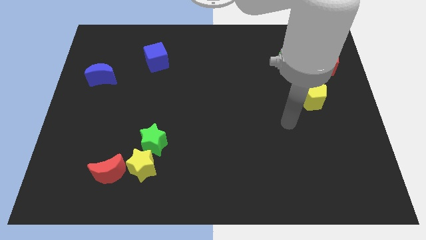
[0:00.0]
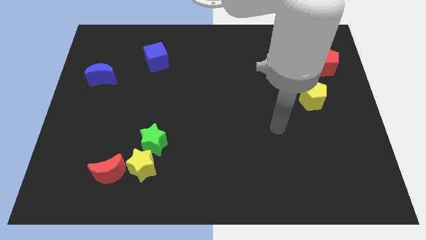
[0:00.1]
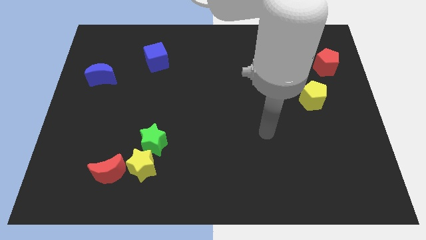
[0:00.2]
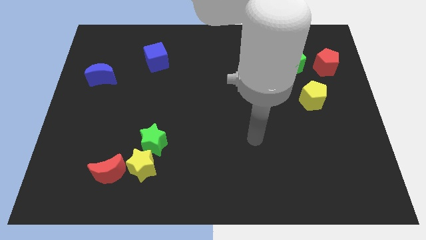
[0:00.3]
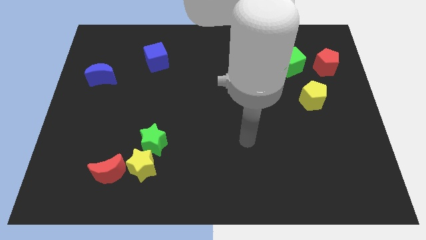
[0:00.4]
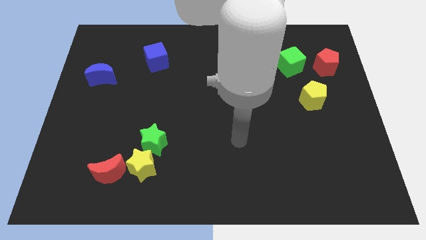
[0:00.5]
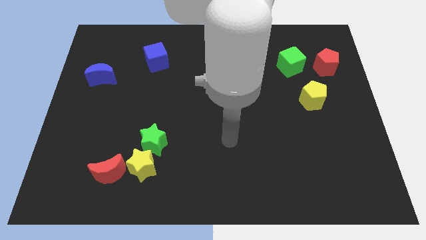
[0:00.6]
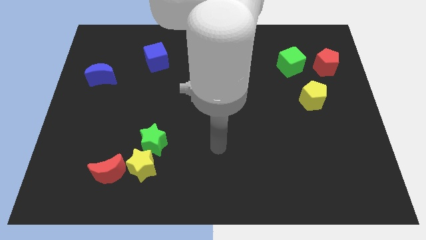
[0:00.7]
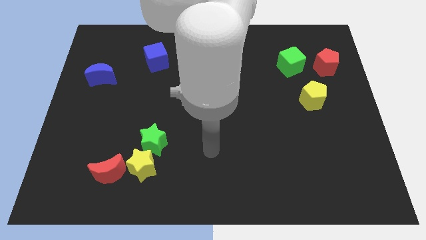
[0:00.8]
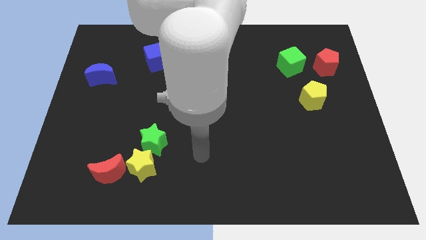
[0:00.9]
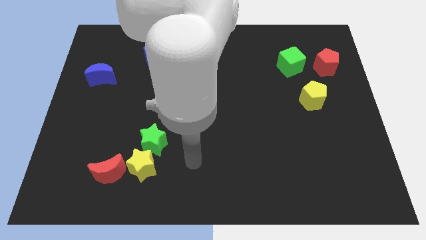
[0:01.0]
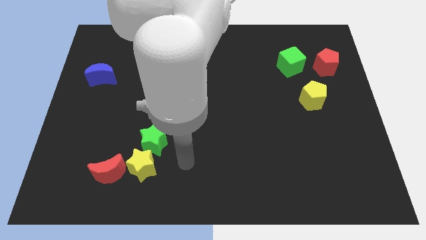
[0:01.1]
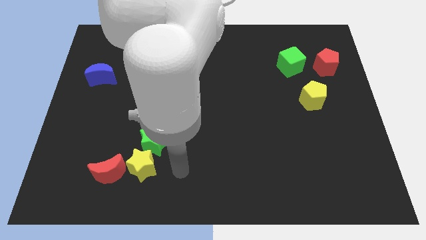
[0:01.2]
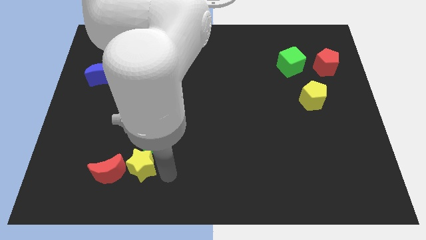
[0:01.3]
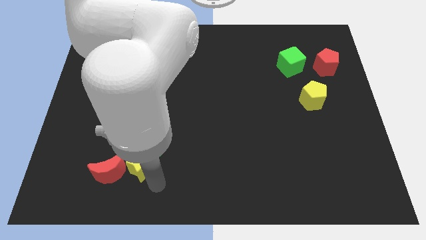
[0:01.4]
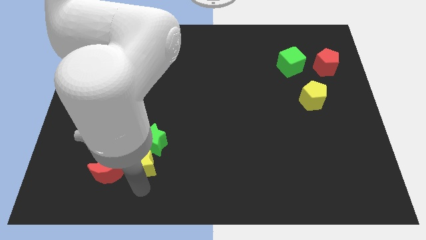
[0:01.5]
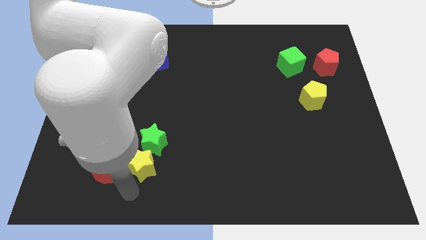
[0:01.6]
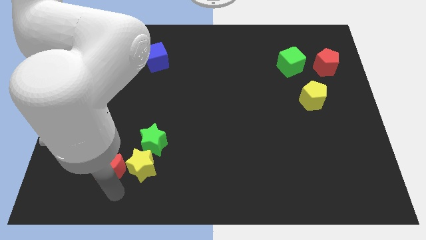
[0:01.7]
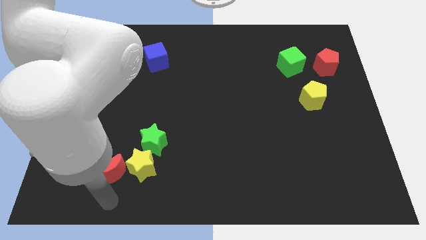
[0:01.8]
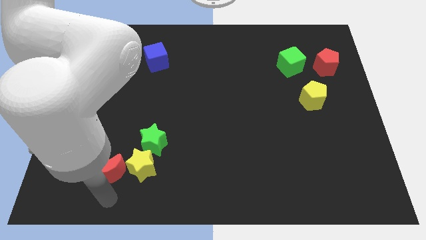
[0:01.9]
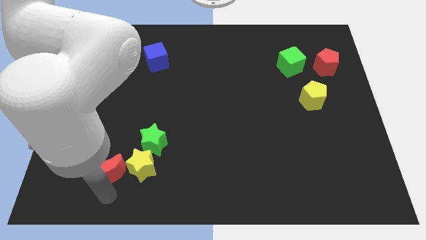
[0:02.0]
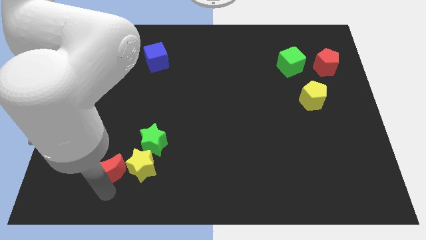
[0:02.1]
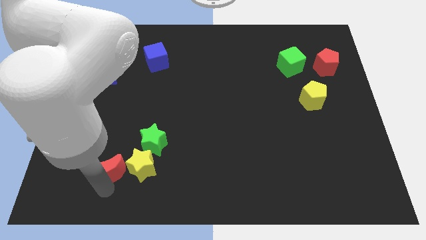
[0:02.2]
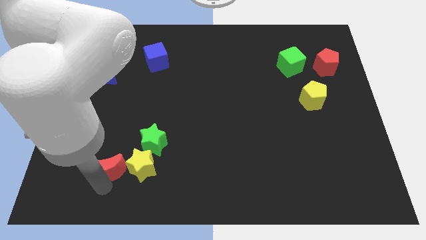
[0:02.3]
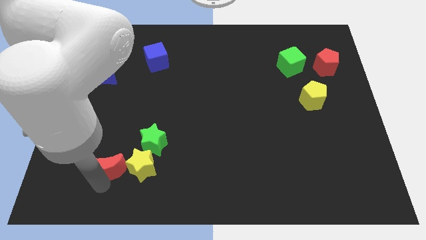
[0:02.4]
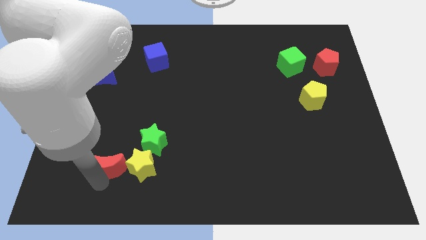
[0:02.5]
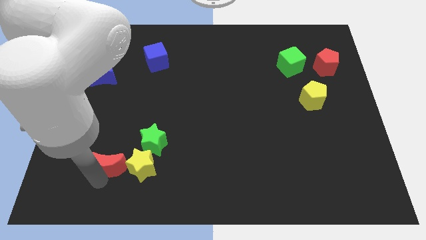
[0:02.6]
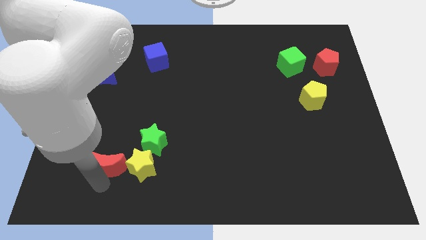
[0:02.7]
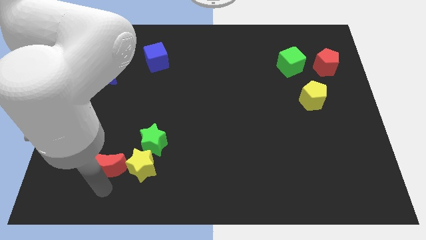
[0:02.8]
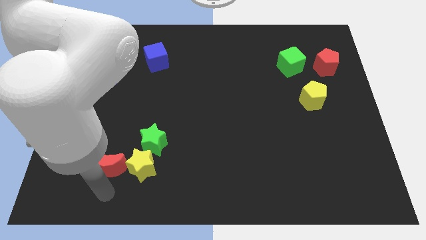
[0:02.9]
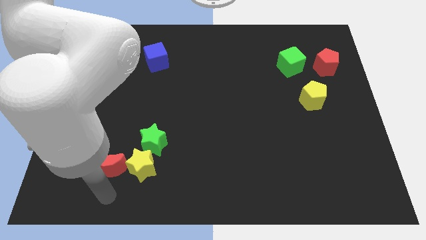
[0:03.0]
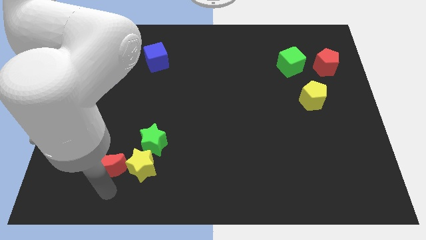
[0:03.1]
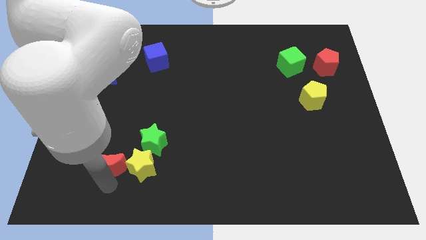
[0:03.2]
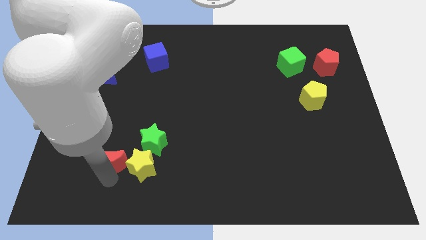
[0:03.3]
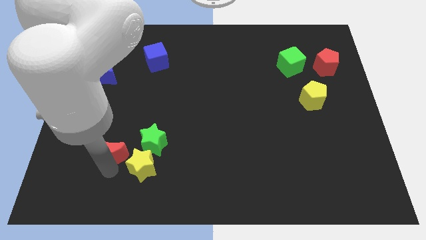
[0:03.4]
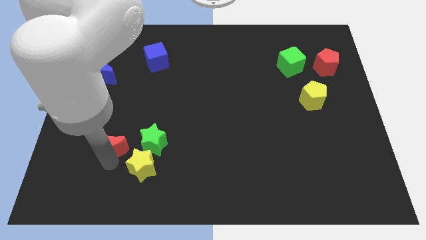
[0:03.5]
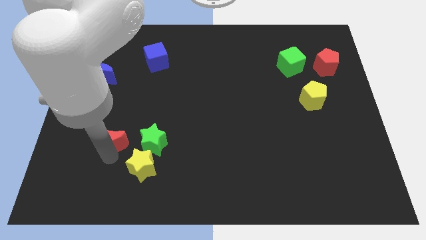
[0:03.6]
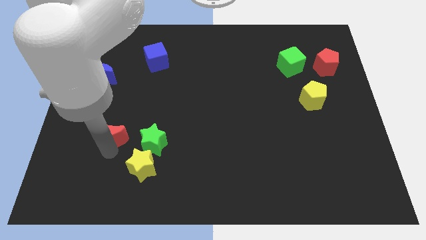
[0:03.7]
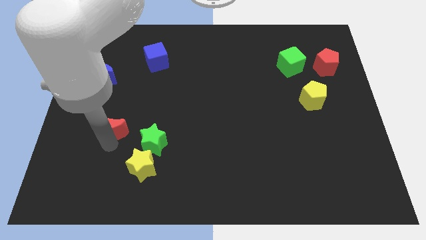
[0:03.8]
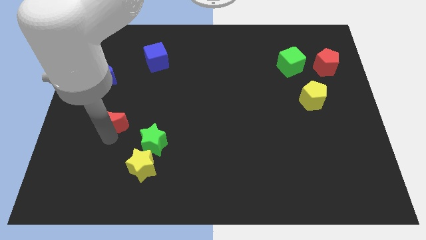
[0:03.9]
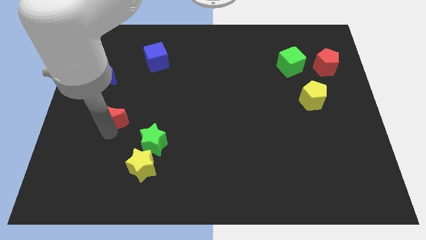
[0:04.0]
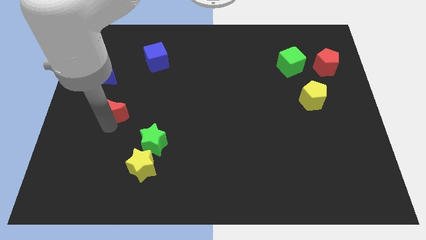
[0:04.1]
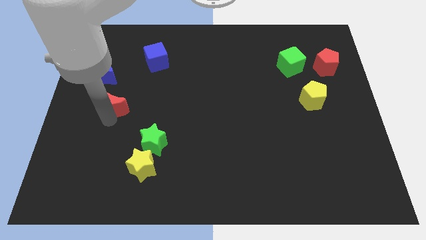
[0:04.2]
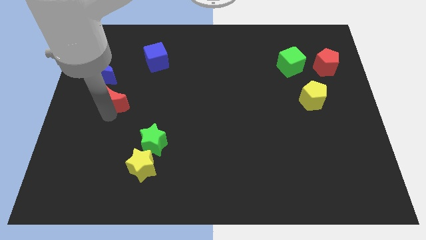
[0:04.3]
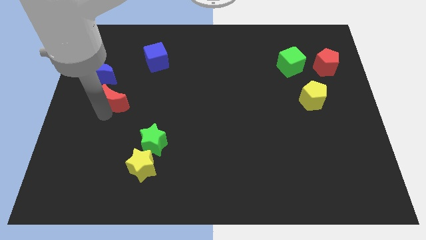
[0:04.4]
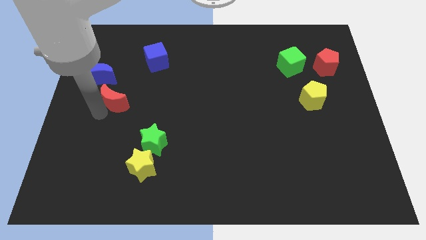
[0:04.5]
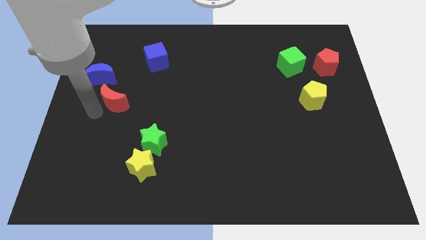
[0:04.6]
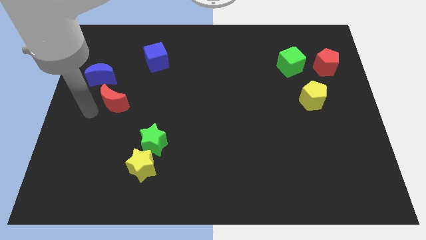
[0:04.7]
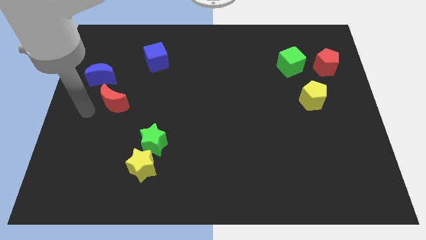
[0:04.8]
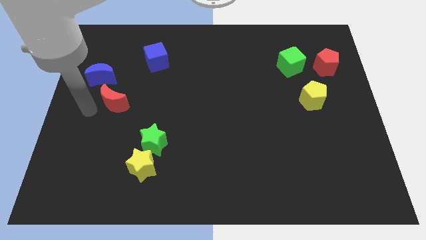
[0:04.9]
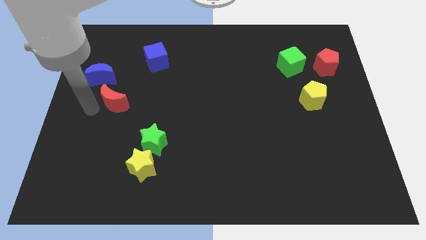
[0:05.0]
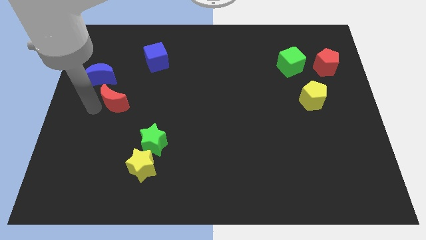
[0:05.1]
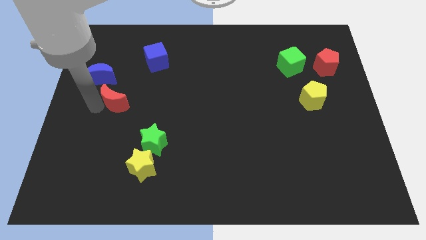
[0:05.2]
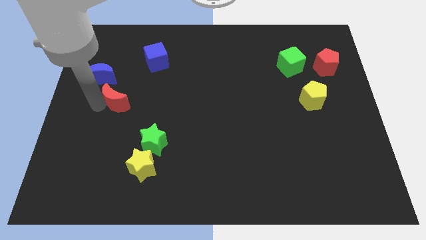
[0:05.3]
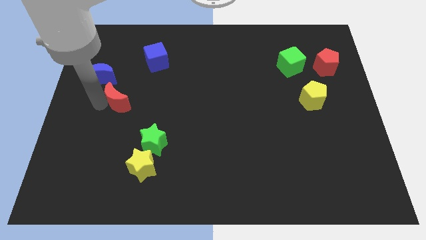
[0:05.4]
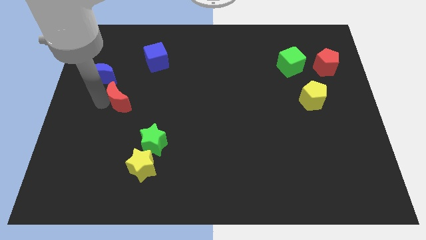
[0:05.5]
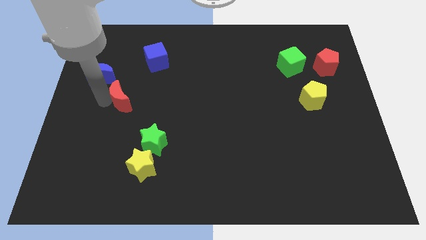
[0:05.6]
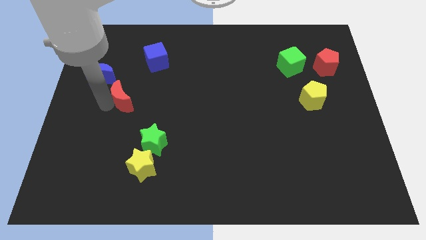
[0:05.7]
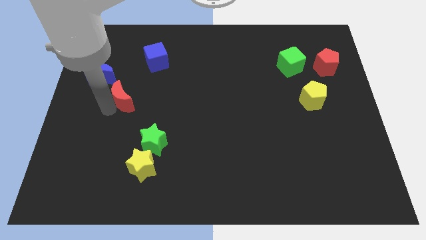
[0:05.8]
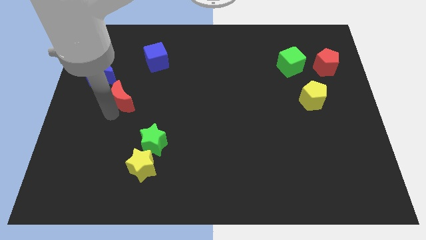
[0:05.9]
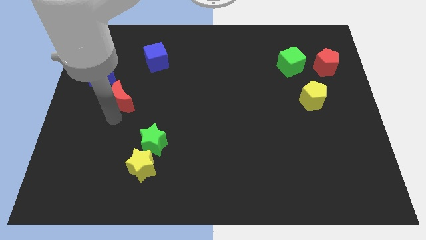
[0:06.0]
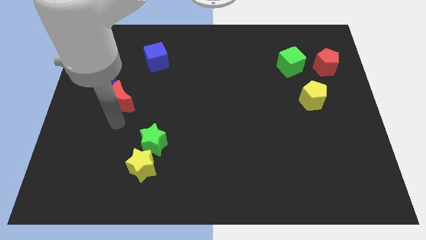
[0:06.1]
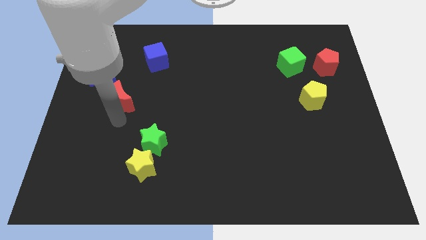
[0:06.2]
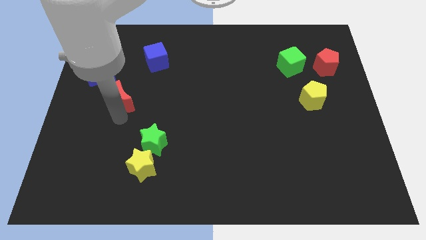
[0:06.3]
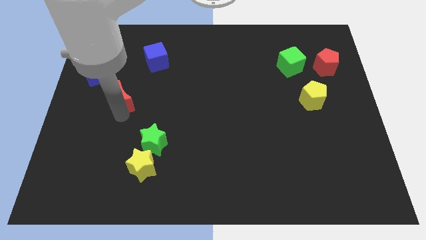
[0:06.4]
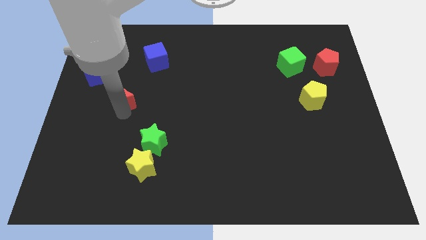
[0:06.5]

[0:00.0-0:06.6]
move the red moon up

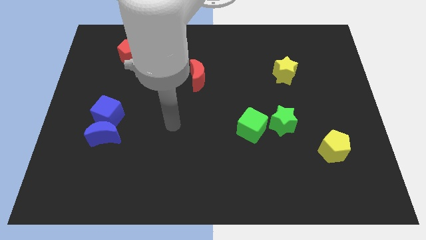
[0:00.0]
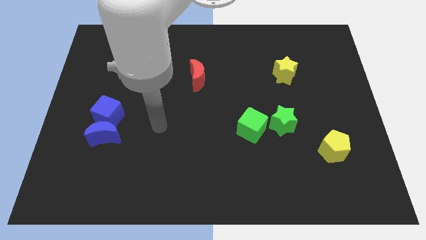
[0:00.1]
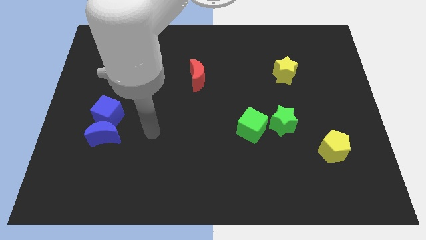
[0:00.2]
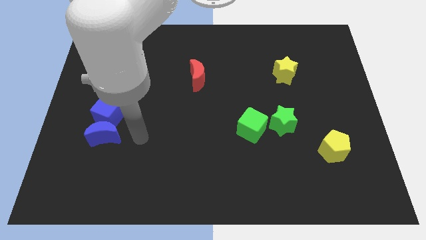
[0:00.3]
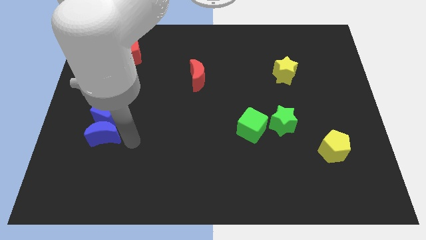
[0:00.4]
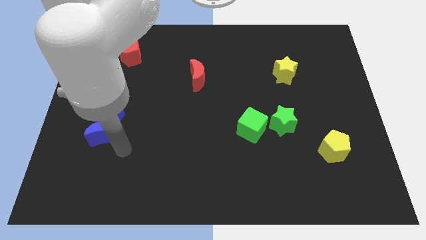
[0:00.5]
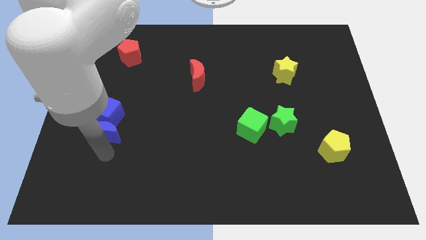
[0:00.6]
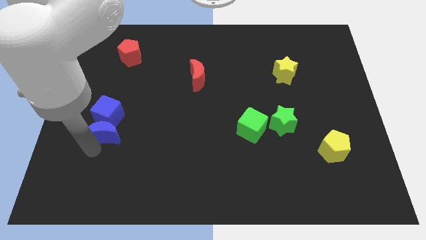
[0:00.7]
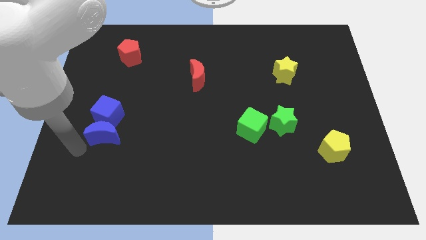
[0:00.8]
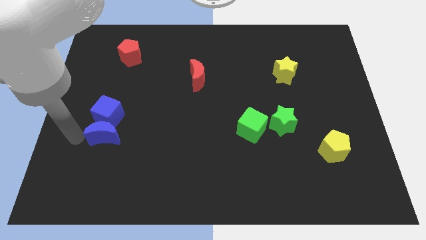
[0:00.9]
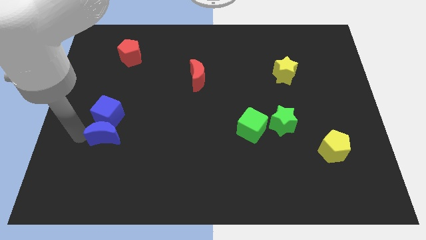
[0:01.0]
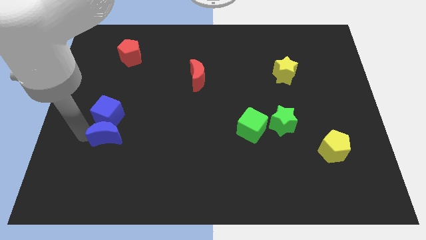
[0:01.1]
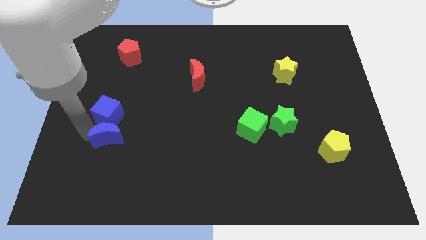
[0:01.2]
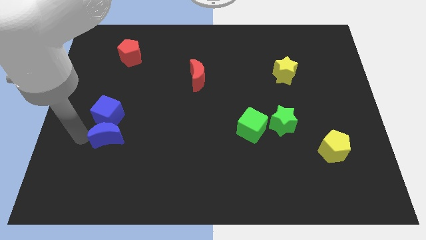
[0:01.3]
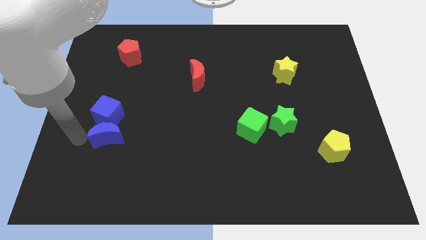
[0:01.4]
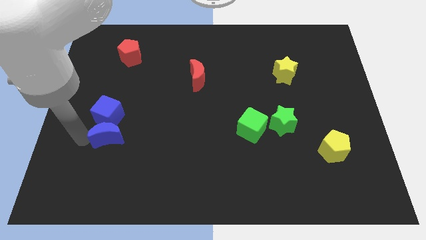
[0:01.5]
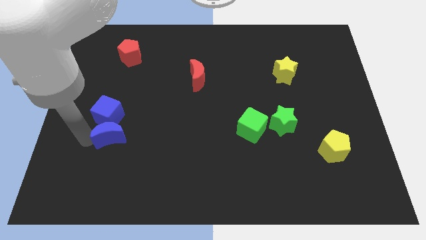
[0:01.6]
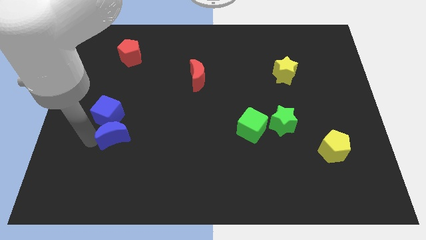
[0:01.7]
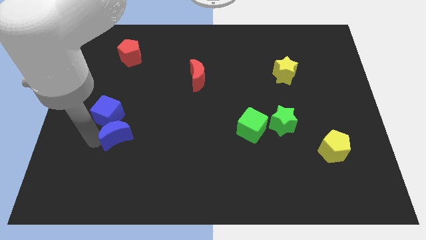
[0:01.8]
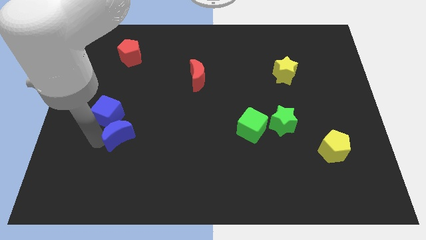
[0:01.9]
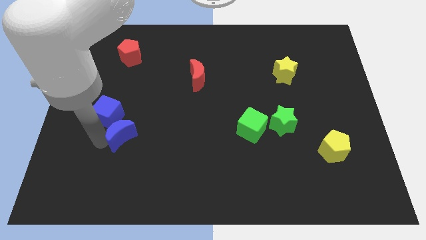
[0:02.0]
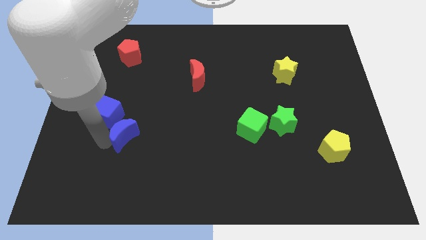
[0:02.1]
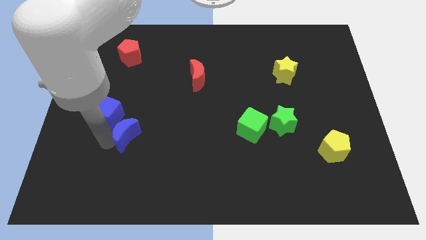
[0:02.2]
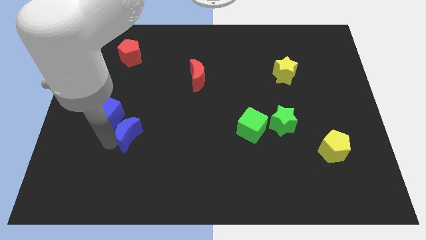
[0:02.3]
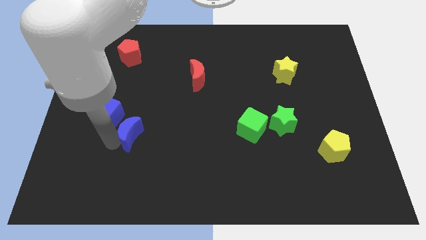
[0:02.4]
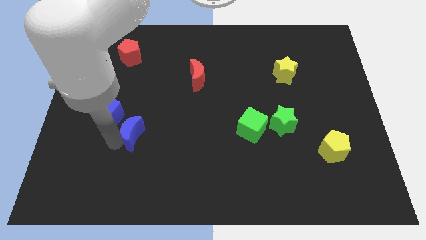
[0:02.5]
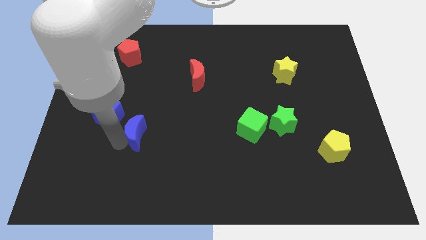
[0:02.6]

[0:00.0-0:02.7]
slightly push the blue moon to the right
